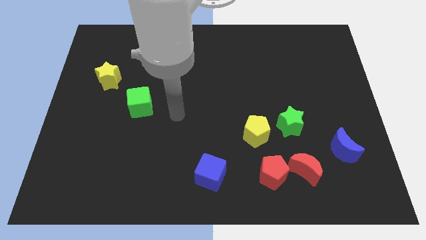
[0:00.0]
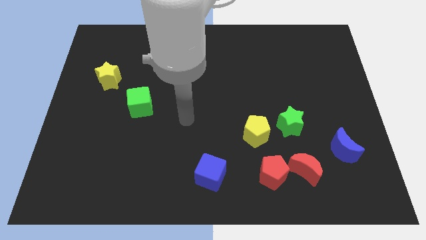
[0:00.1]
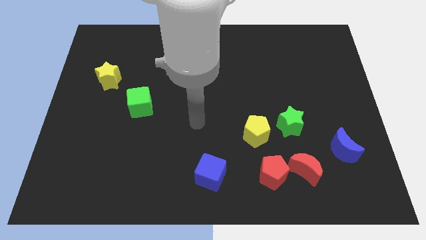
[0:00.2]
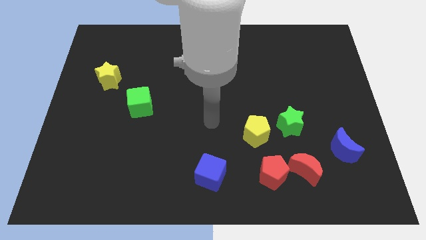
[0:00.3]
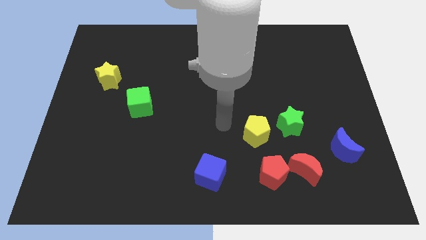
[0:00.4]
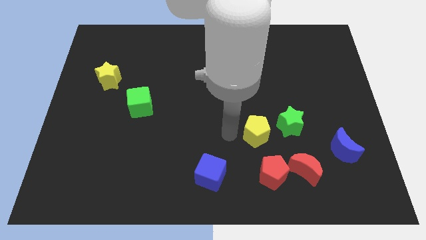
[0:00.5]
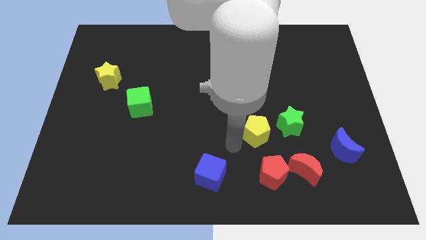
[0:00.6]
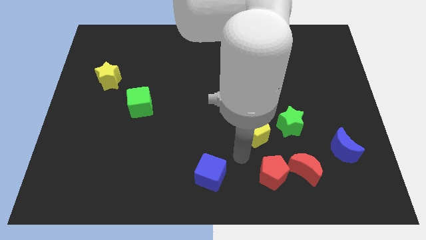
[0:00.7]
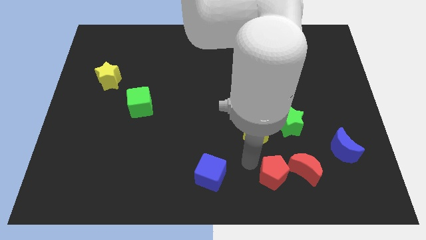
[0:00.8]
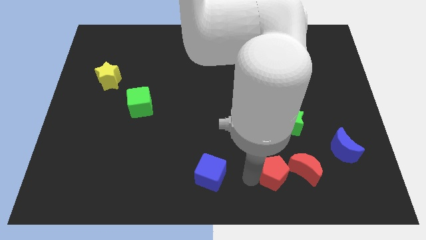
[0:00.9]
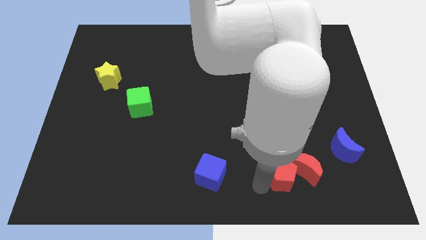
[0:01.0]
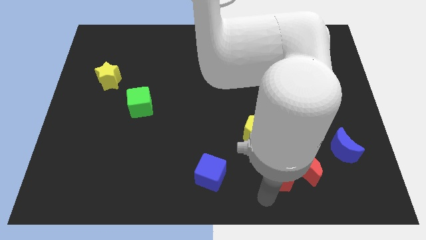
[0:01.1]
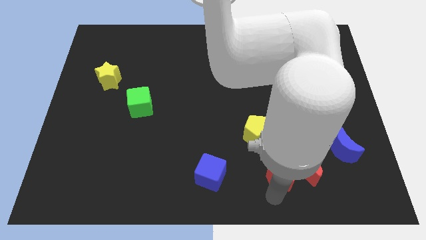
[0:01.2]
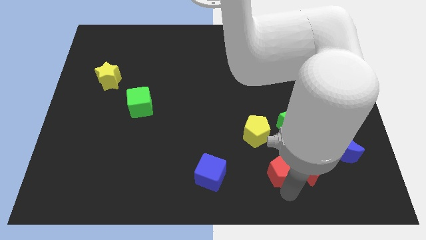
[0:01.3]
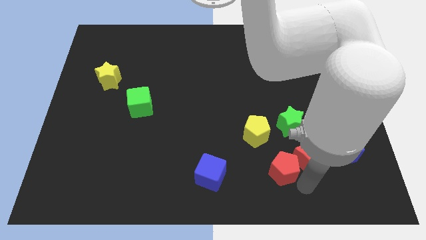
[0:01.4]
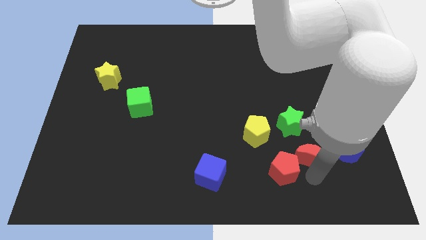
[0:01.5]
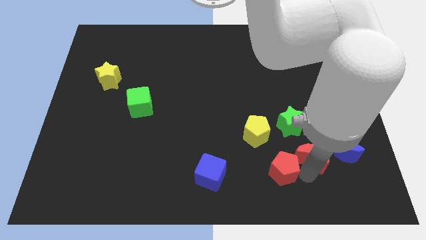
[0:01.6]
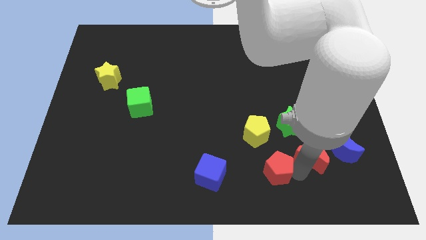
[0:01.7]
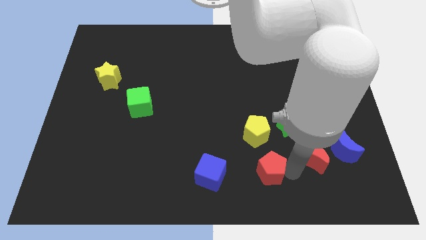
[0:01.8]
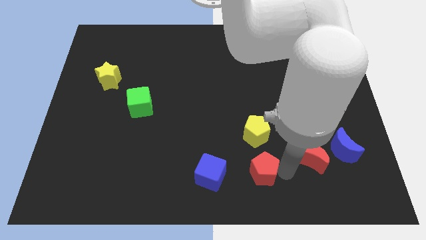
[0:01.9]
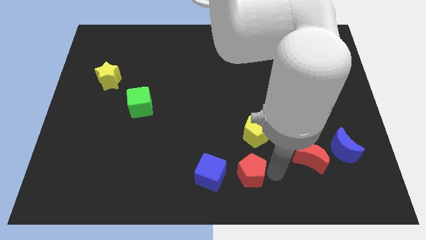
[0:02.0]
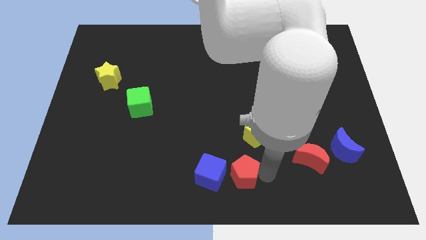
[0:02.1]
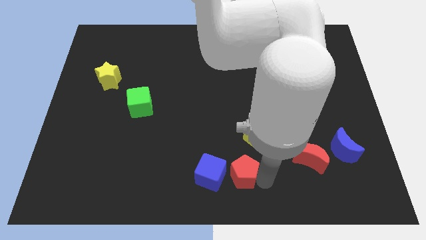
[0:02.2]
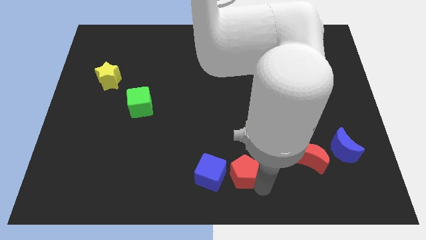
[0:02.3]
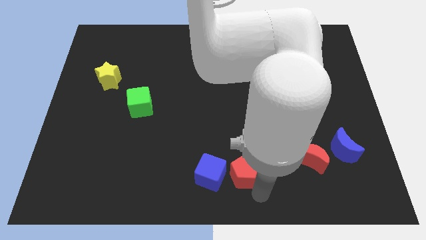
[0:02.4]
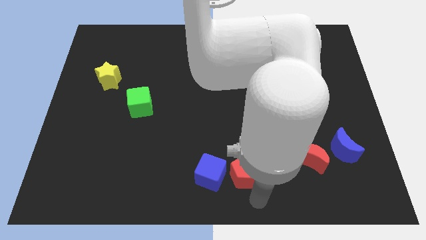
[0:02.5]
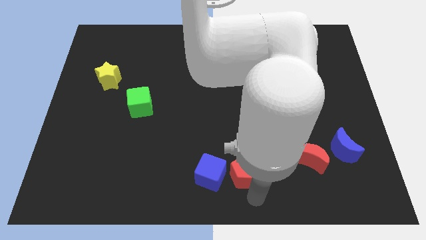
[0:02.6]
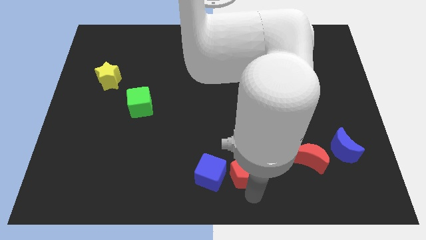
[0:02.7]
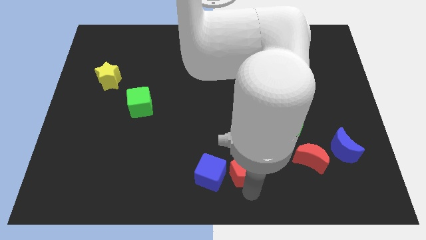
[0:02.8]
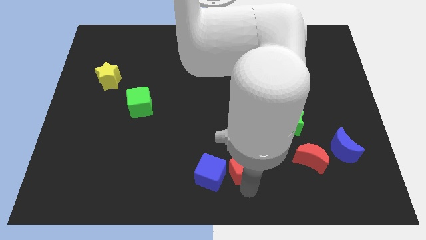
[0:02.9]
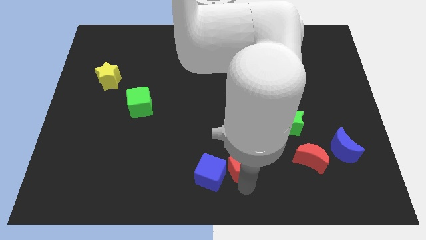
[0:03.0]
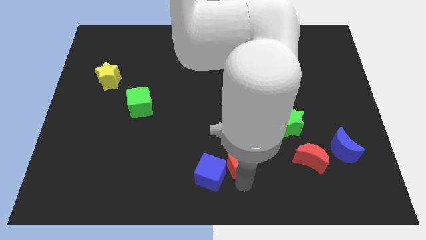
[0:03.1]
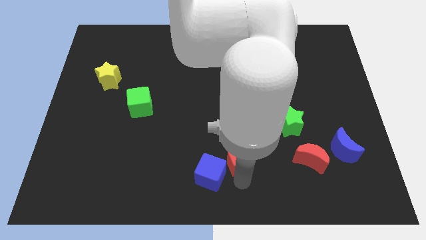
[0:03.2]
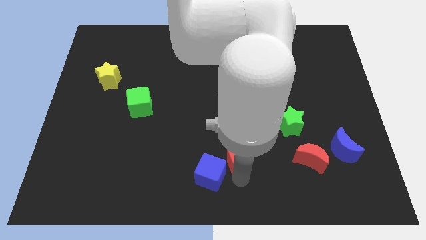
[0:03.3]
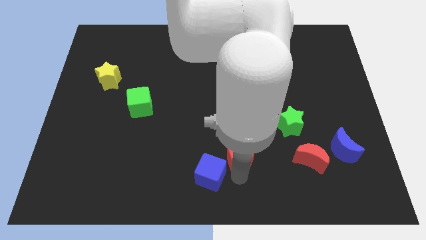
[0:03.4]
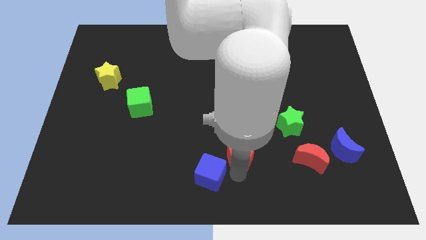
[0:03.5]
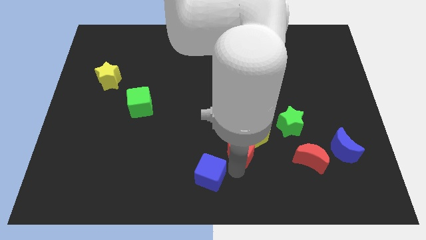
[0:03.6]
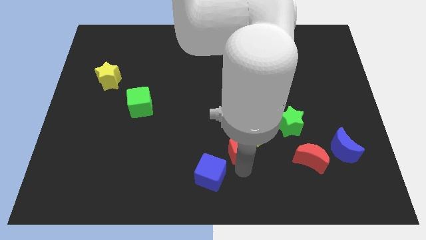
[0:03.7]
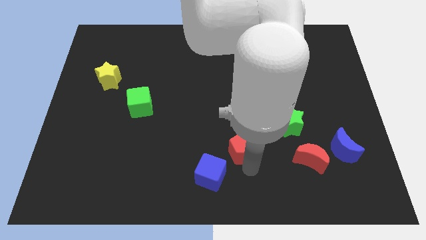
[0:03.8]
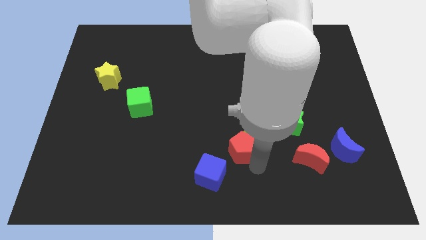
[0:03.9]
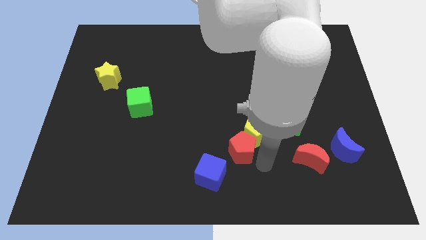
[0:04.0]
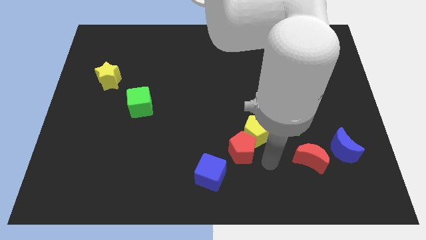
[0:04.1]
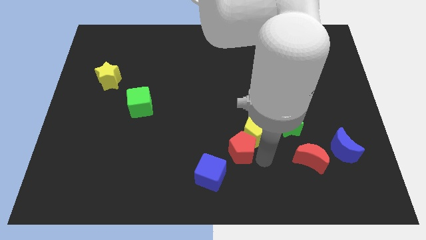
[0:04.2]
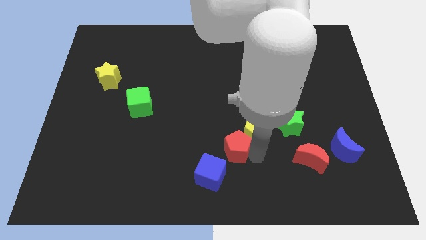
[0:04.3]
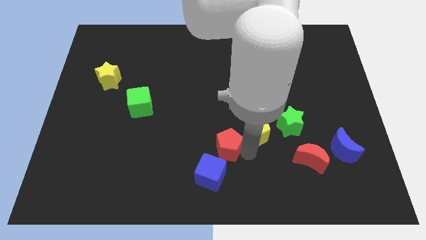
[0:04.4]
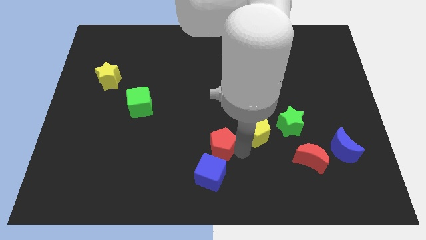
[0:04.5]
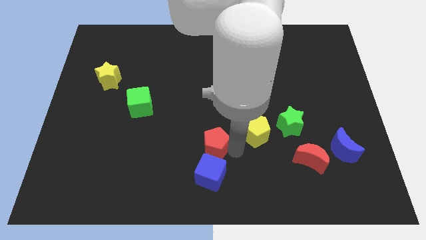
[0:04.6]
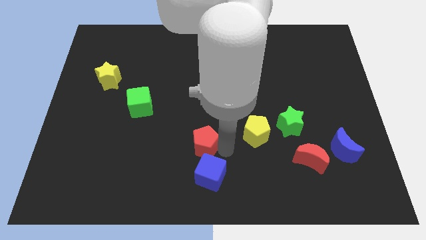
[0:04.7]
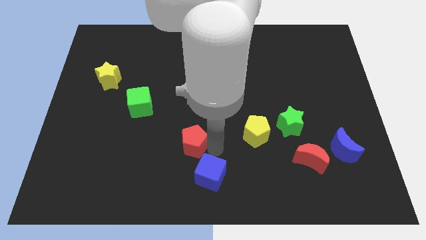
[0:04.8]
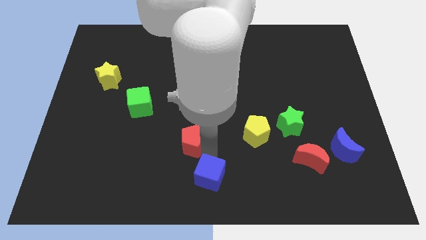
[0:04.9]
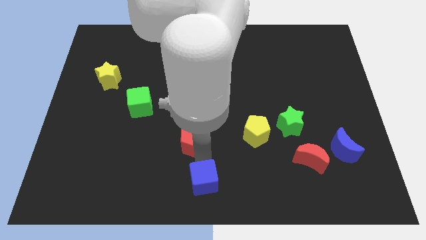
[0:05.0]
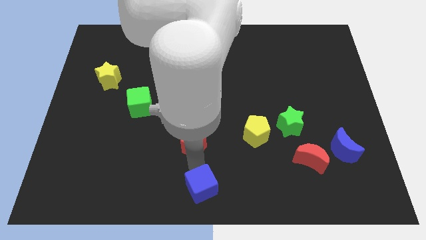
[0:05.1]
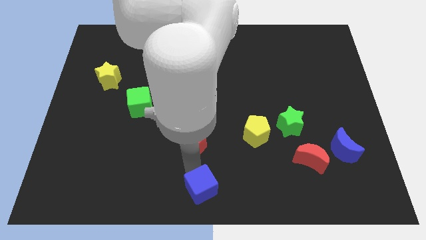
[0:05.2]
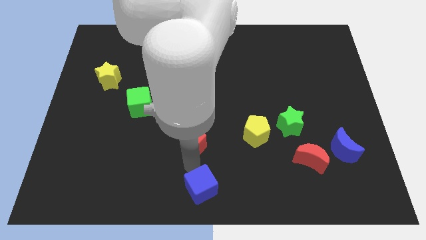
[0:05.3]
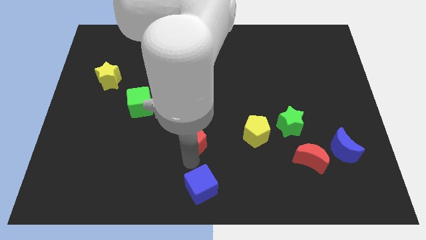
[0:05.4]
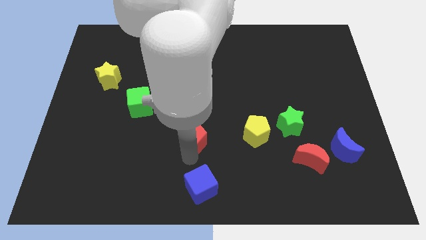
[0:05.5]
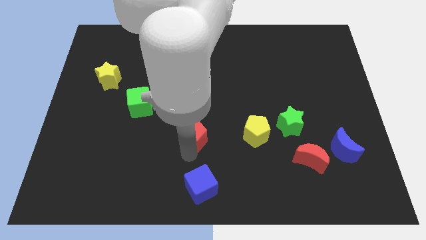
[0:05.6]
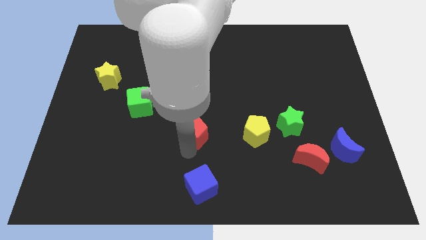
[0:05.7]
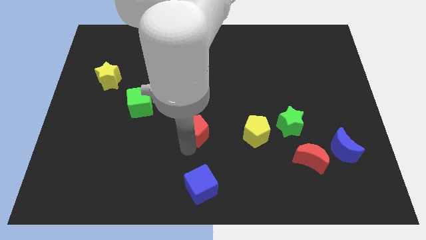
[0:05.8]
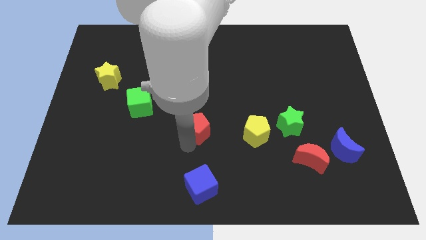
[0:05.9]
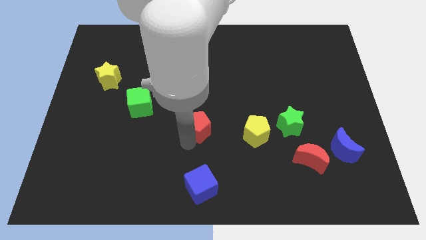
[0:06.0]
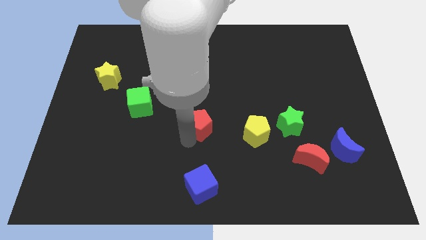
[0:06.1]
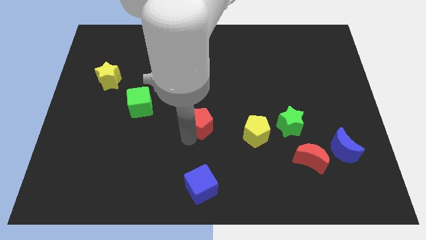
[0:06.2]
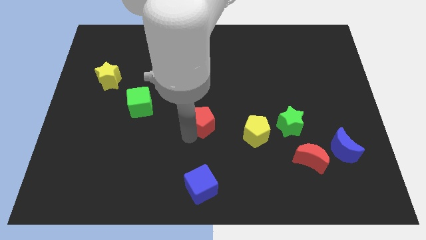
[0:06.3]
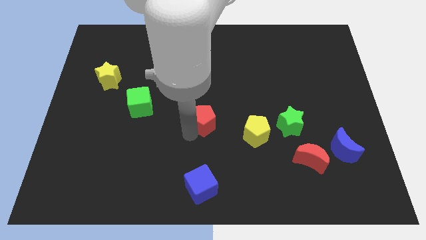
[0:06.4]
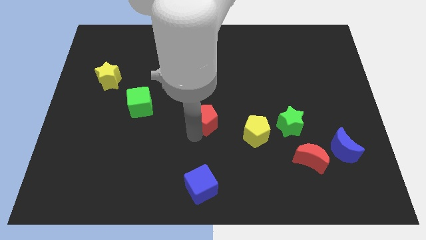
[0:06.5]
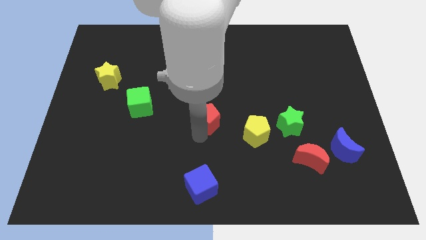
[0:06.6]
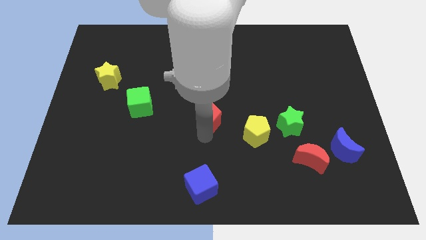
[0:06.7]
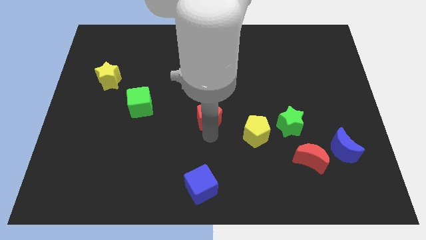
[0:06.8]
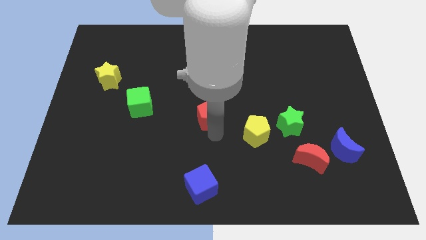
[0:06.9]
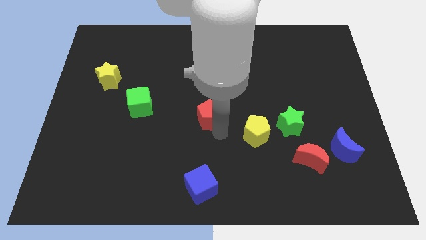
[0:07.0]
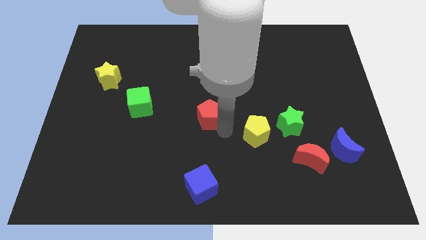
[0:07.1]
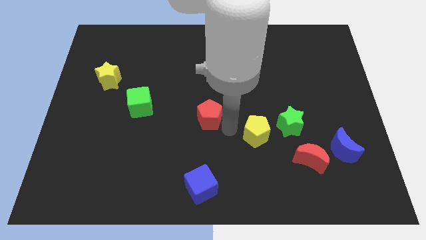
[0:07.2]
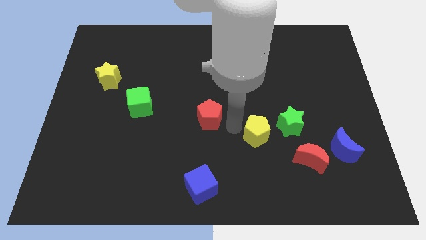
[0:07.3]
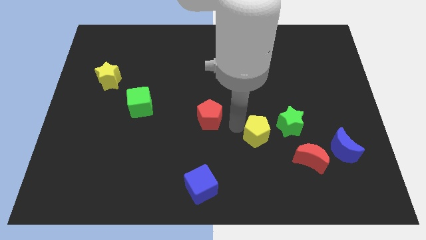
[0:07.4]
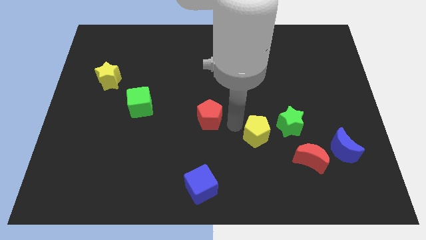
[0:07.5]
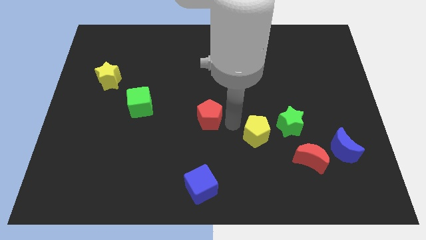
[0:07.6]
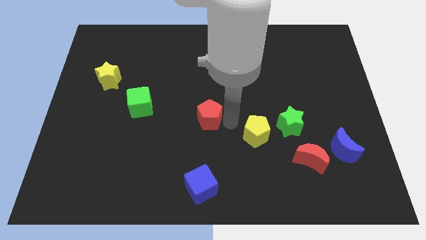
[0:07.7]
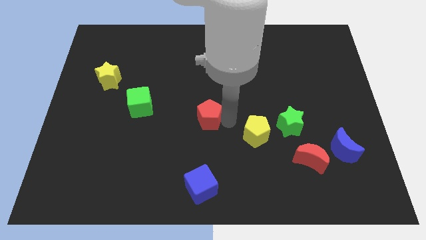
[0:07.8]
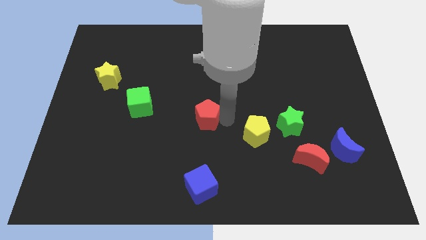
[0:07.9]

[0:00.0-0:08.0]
move the red pentagon upwards and to the left diagonally
